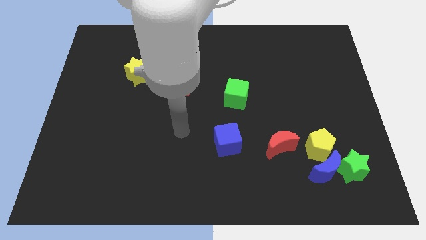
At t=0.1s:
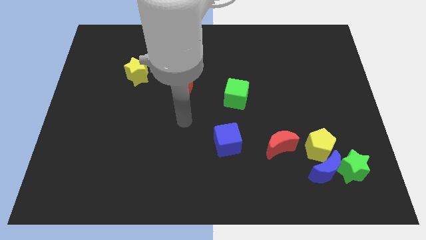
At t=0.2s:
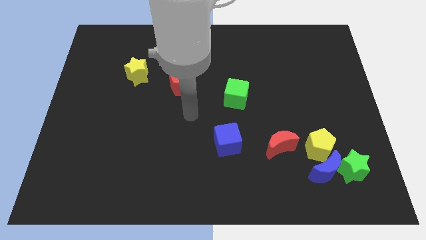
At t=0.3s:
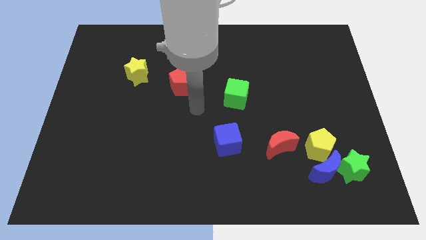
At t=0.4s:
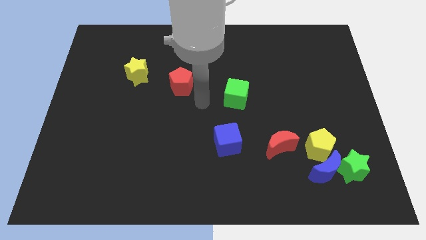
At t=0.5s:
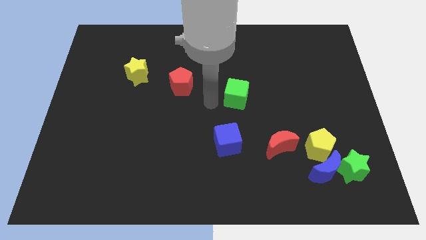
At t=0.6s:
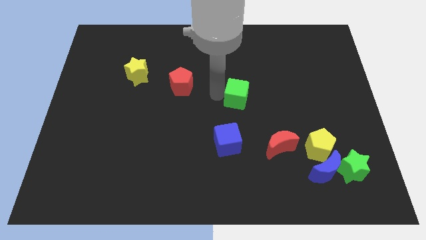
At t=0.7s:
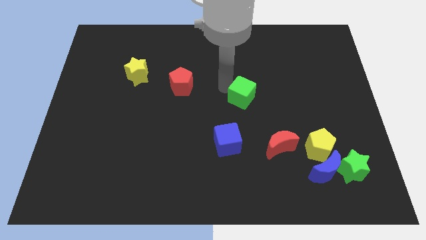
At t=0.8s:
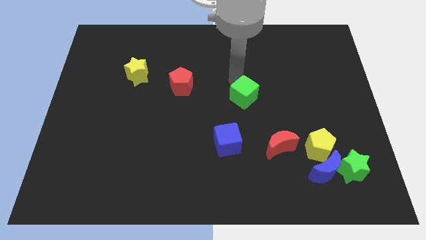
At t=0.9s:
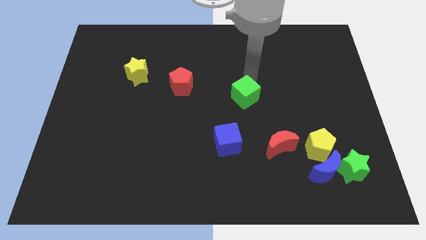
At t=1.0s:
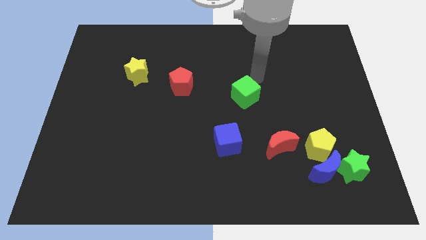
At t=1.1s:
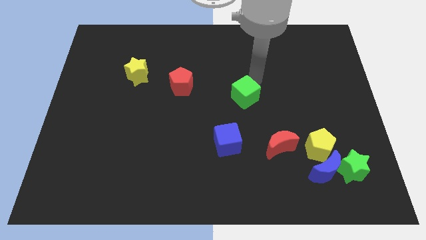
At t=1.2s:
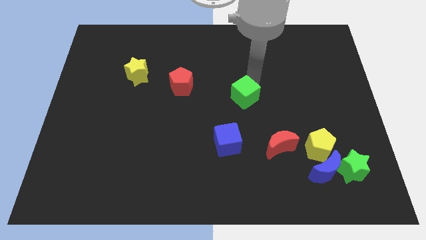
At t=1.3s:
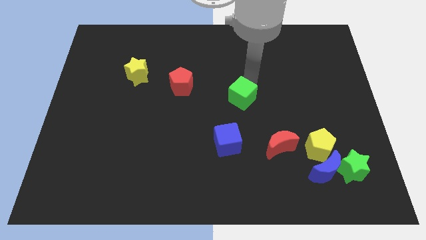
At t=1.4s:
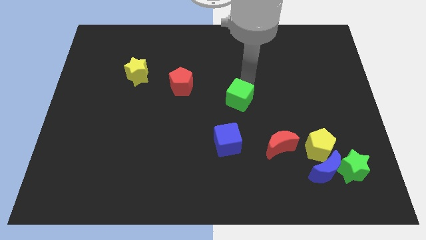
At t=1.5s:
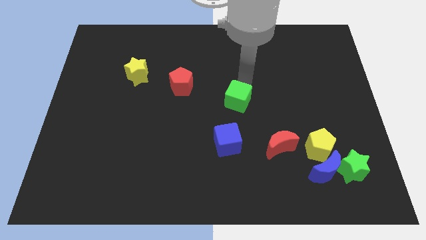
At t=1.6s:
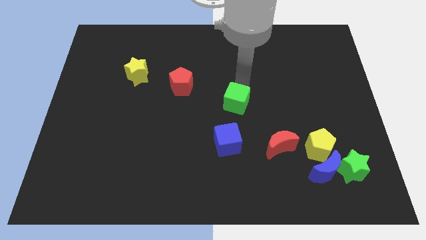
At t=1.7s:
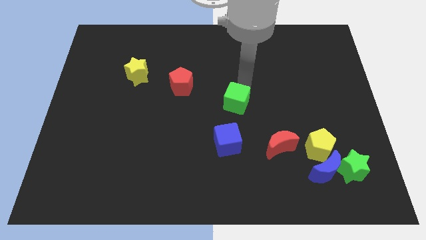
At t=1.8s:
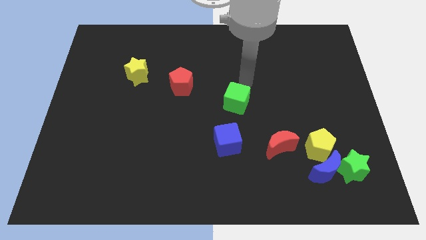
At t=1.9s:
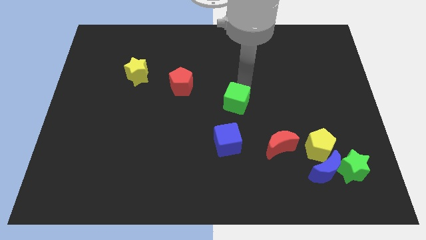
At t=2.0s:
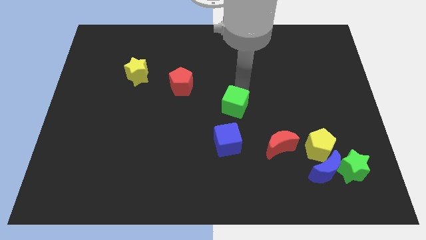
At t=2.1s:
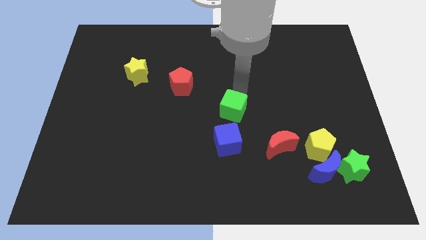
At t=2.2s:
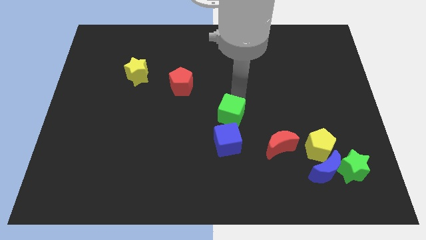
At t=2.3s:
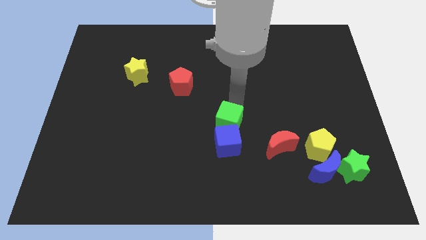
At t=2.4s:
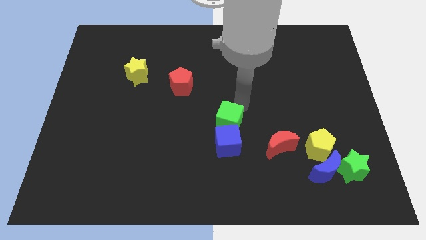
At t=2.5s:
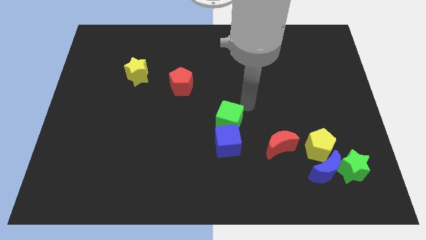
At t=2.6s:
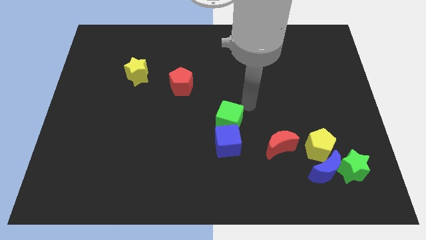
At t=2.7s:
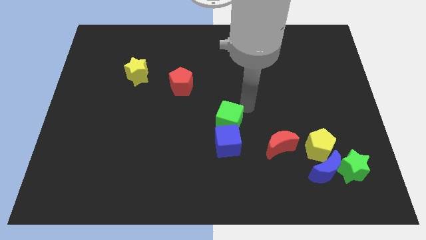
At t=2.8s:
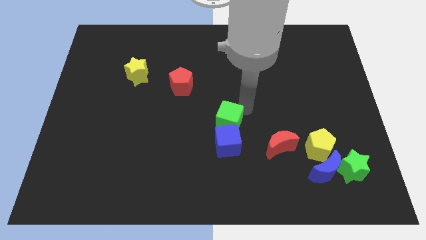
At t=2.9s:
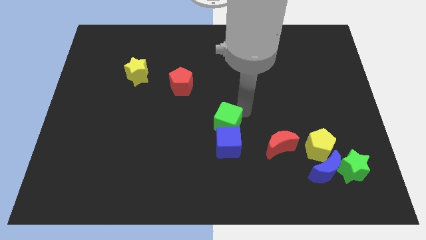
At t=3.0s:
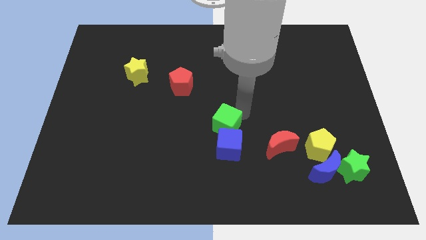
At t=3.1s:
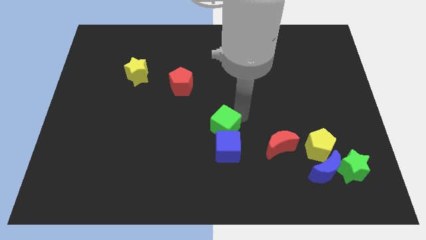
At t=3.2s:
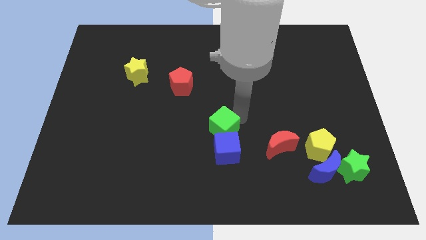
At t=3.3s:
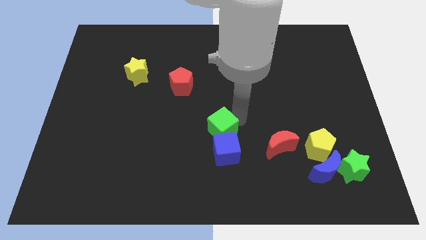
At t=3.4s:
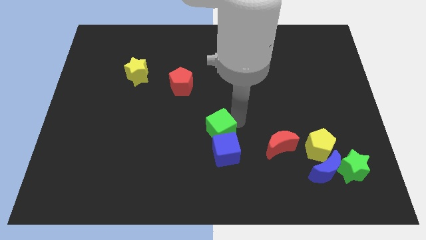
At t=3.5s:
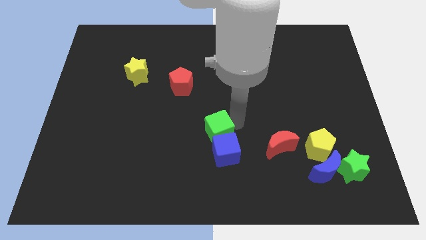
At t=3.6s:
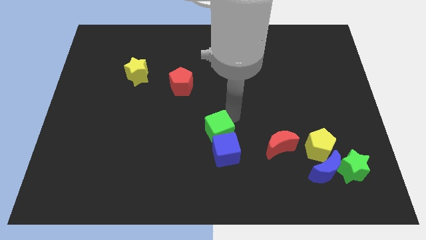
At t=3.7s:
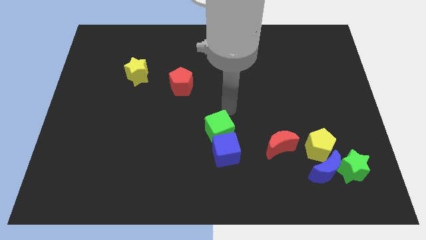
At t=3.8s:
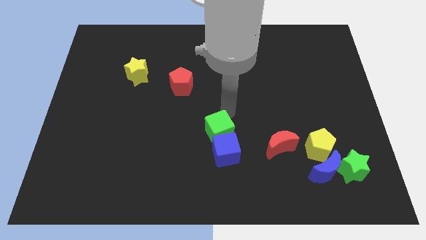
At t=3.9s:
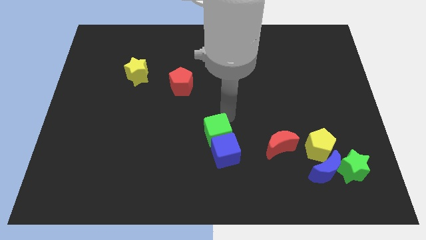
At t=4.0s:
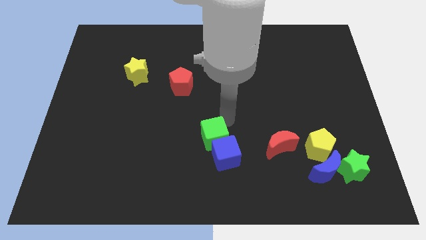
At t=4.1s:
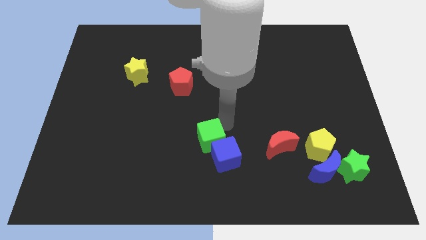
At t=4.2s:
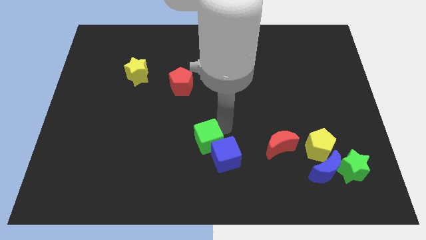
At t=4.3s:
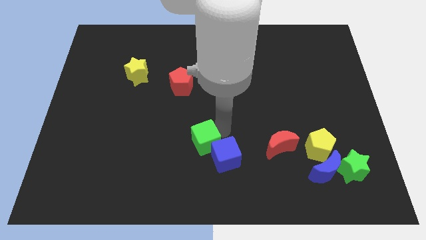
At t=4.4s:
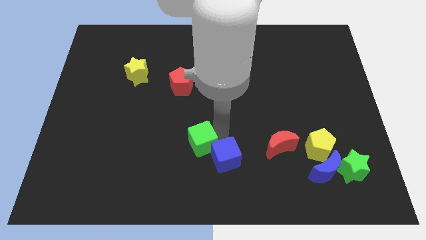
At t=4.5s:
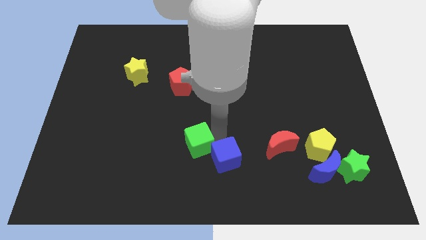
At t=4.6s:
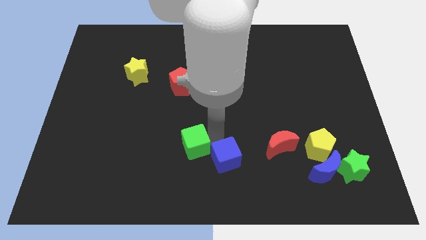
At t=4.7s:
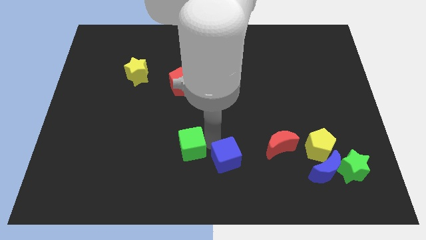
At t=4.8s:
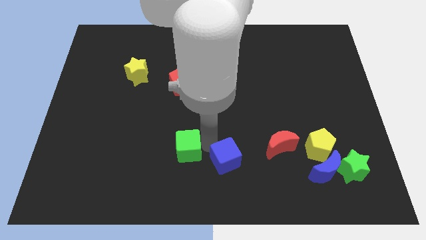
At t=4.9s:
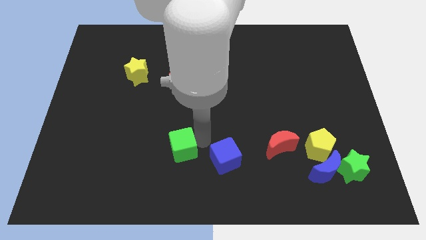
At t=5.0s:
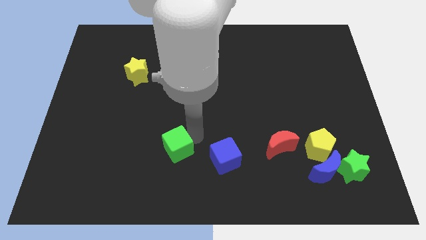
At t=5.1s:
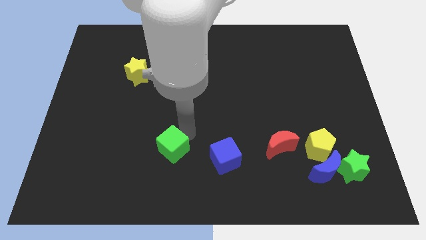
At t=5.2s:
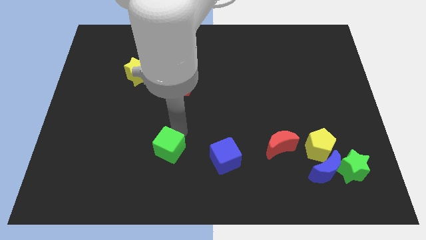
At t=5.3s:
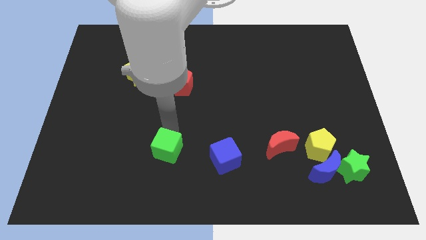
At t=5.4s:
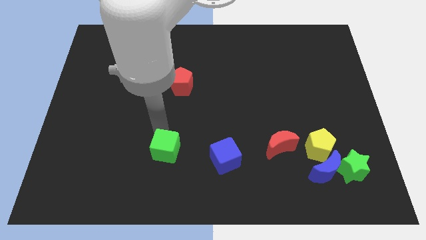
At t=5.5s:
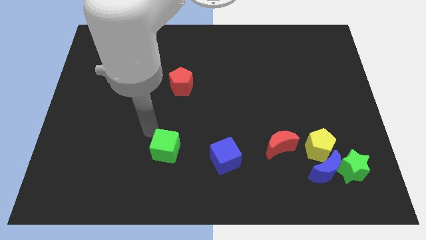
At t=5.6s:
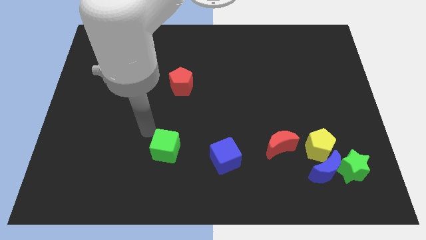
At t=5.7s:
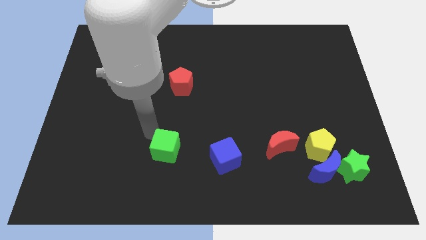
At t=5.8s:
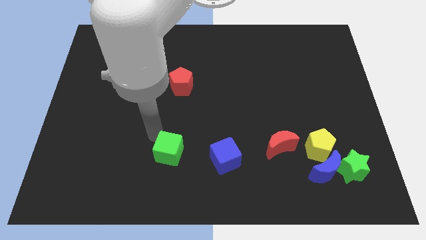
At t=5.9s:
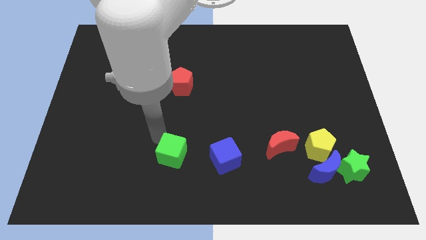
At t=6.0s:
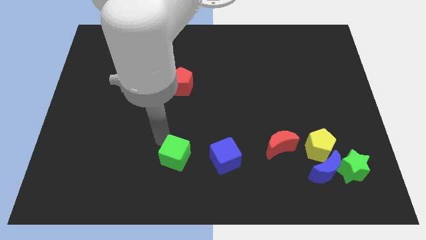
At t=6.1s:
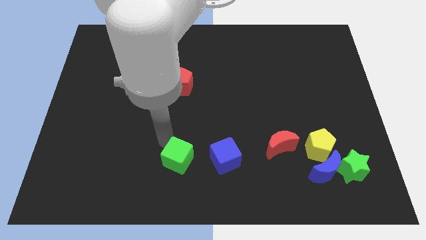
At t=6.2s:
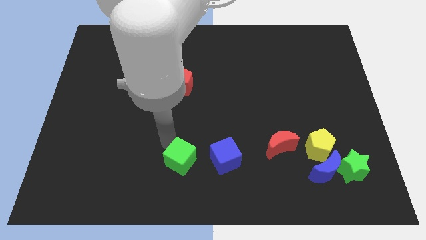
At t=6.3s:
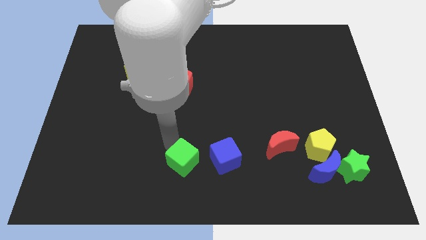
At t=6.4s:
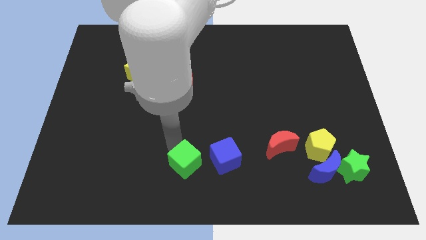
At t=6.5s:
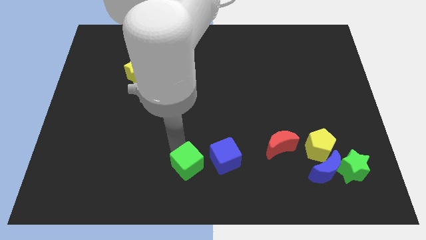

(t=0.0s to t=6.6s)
put the green cube to the bottom left of the blue cube

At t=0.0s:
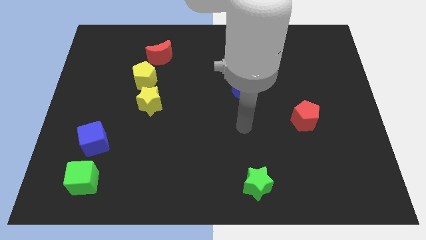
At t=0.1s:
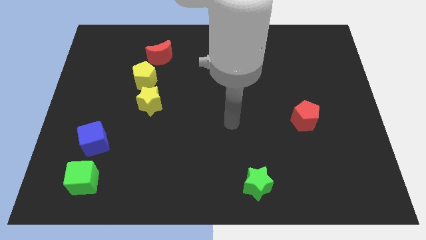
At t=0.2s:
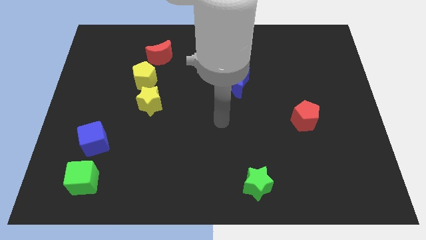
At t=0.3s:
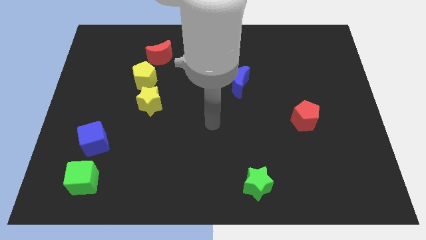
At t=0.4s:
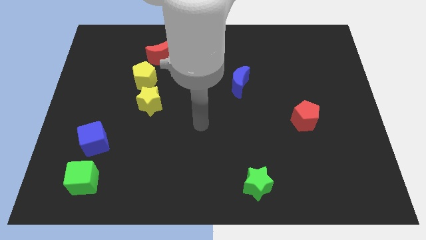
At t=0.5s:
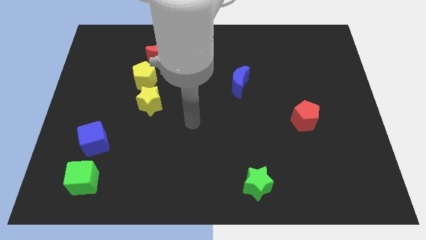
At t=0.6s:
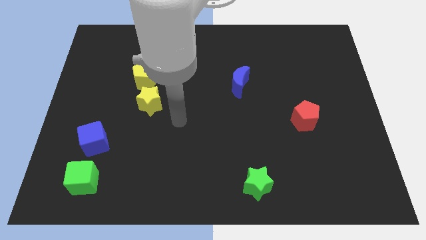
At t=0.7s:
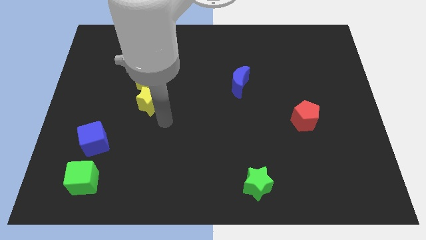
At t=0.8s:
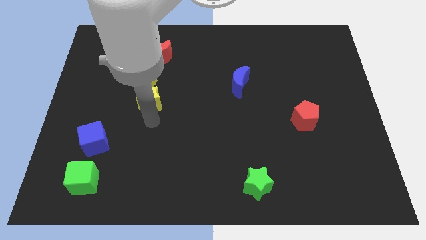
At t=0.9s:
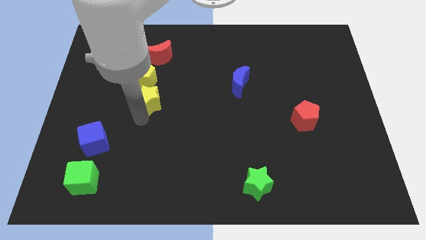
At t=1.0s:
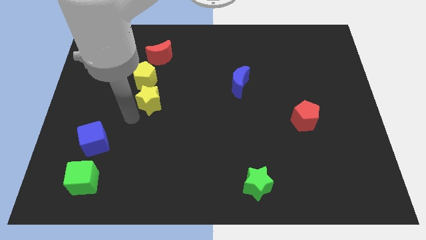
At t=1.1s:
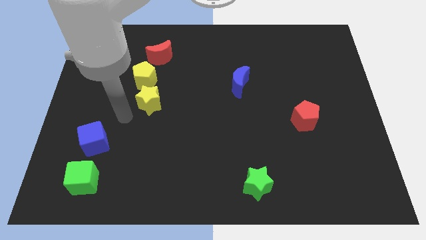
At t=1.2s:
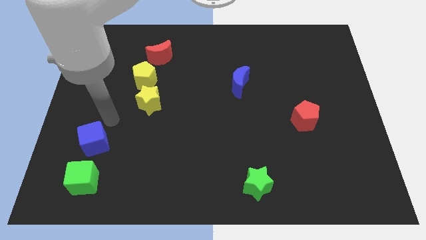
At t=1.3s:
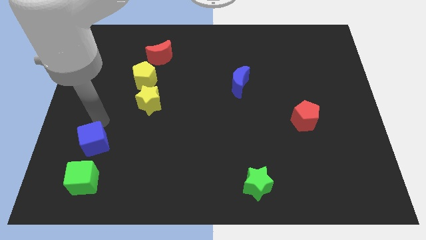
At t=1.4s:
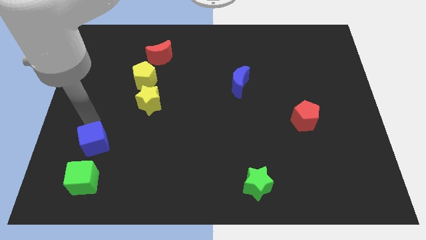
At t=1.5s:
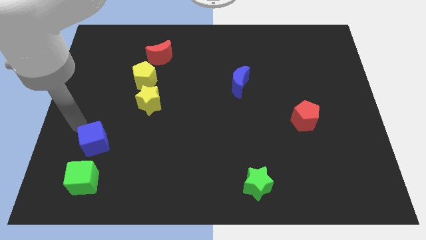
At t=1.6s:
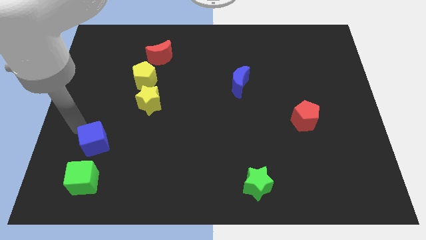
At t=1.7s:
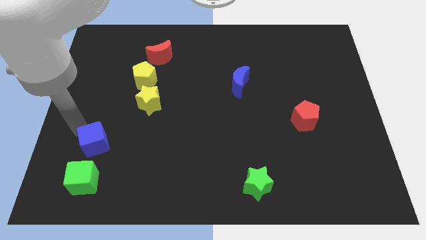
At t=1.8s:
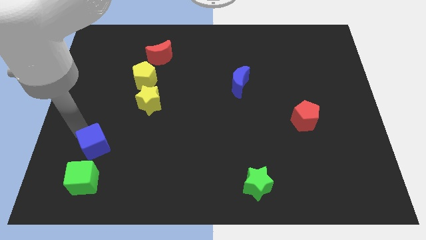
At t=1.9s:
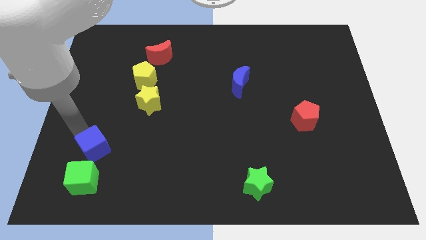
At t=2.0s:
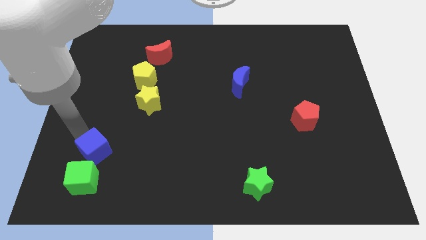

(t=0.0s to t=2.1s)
put the blue cube to the top right side of the green cube
